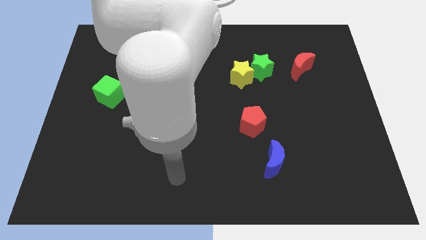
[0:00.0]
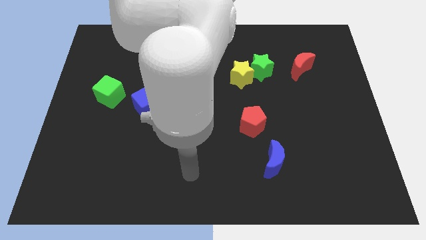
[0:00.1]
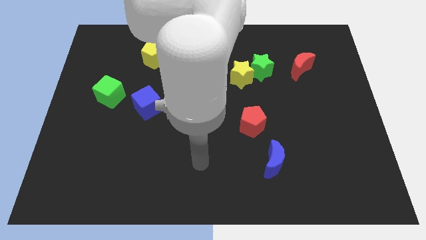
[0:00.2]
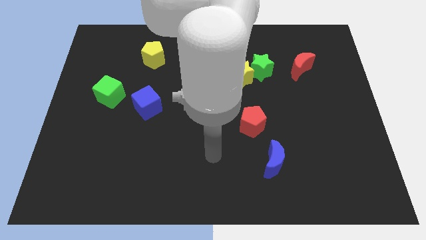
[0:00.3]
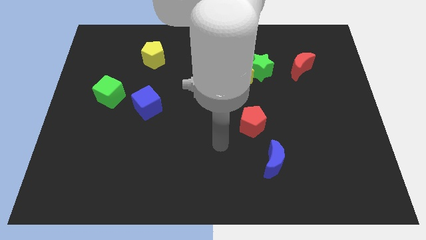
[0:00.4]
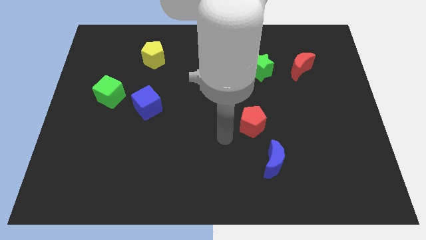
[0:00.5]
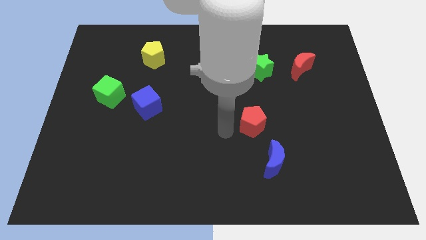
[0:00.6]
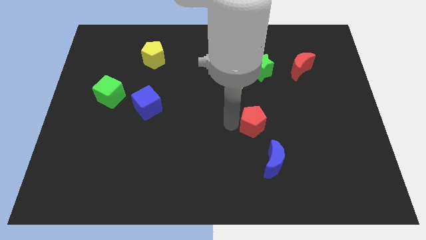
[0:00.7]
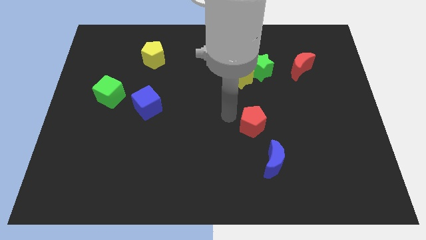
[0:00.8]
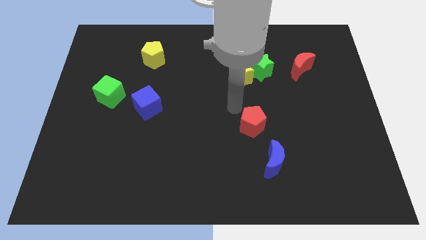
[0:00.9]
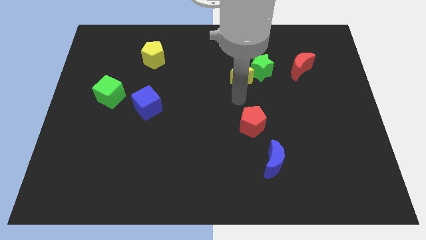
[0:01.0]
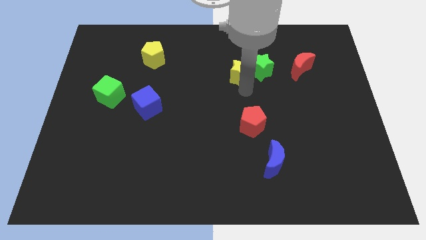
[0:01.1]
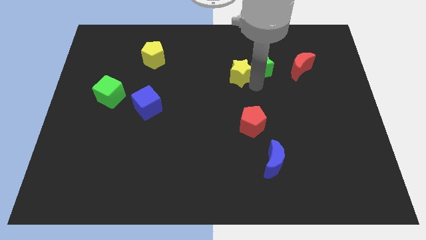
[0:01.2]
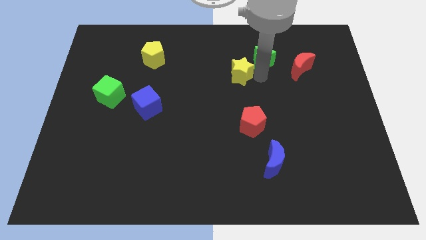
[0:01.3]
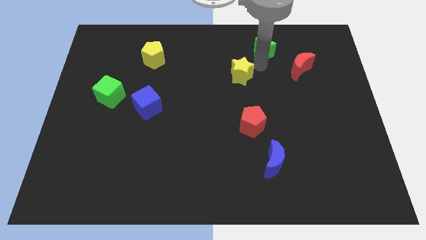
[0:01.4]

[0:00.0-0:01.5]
pull the yellow star apart from the green star

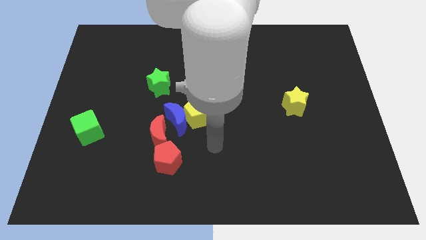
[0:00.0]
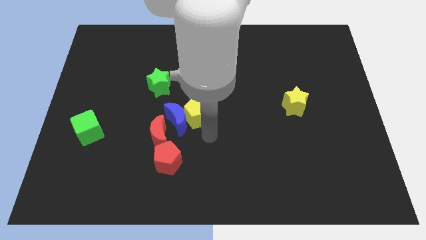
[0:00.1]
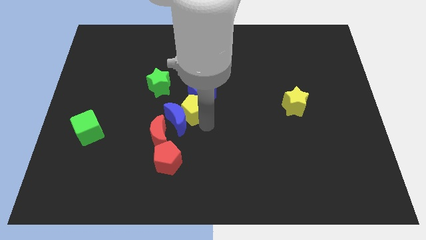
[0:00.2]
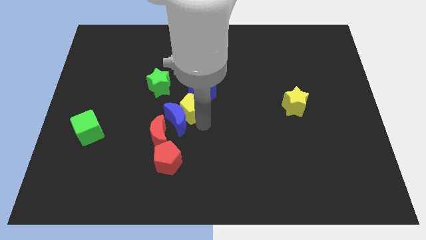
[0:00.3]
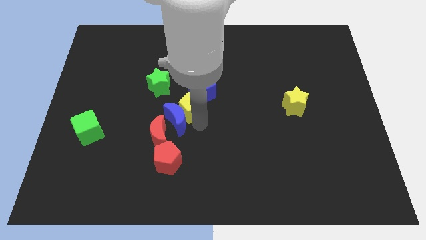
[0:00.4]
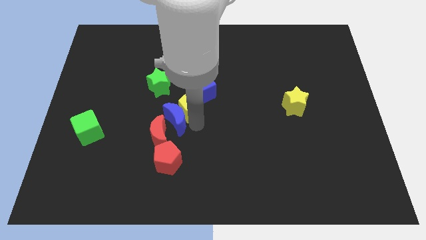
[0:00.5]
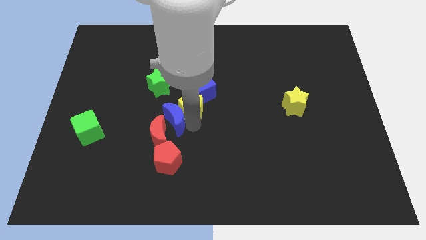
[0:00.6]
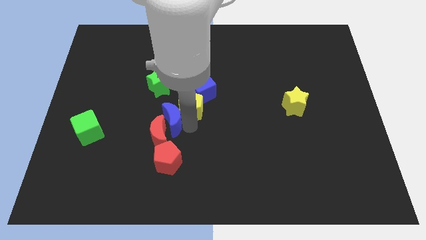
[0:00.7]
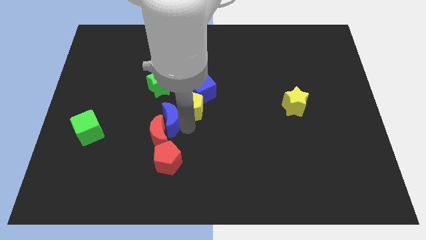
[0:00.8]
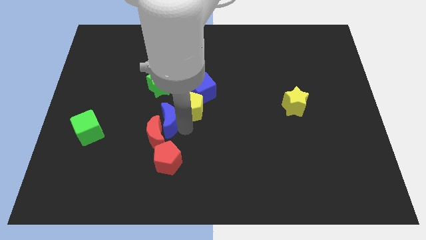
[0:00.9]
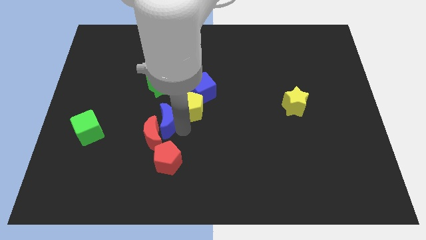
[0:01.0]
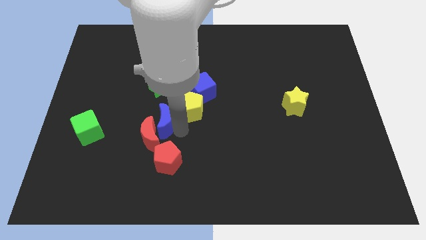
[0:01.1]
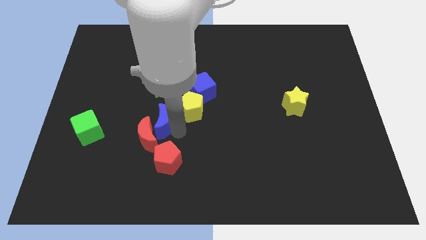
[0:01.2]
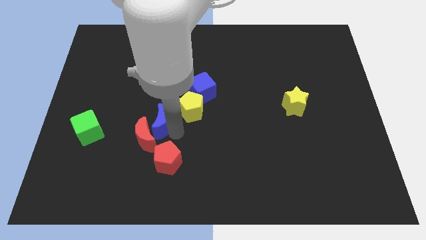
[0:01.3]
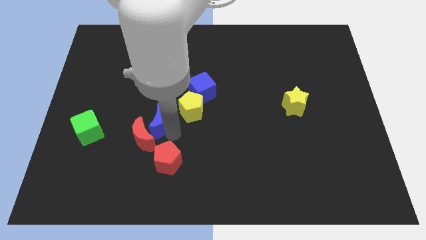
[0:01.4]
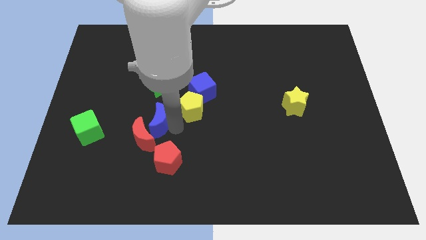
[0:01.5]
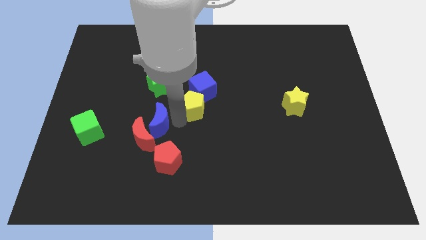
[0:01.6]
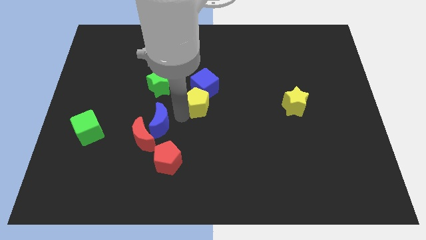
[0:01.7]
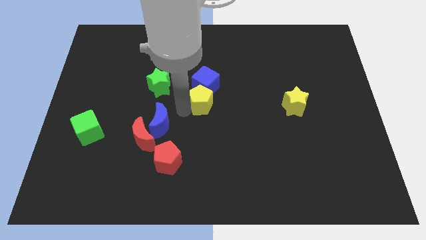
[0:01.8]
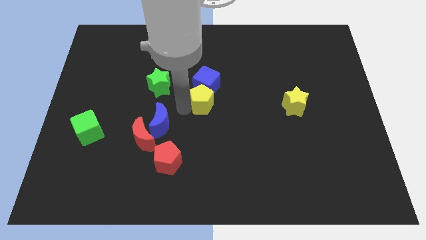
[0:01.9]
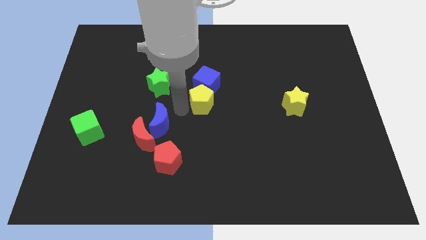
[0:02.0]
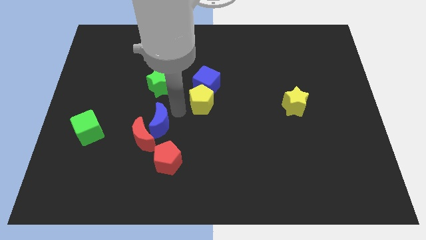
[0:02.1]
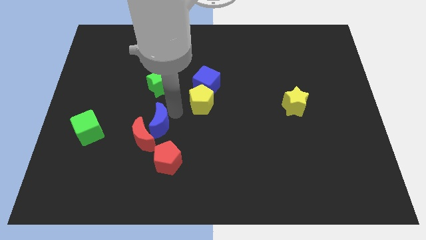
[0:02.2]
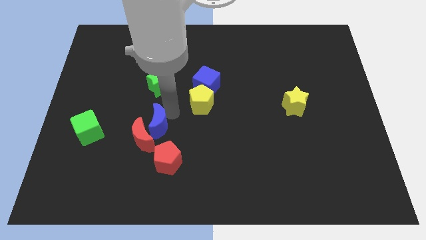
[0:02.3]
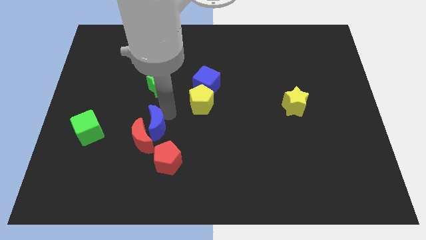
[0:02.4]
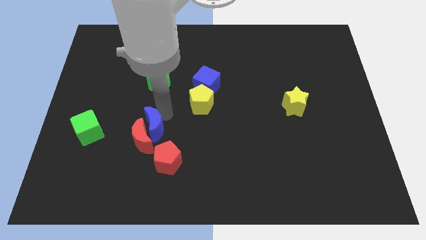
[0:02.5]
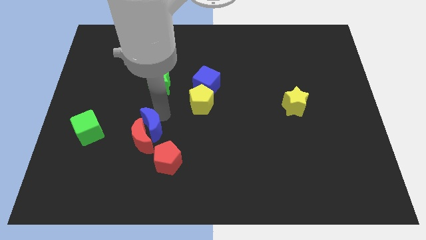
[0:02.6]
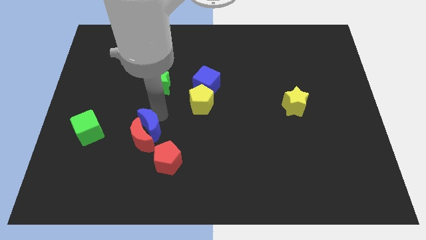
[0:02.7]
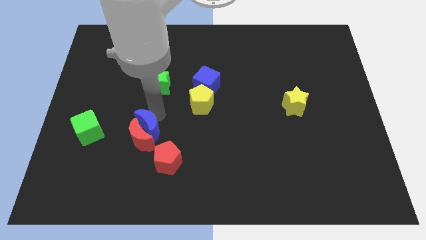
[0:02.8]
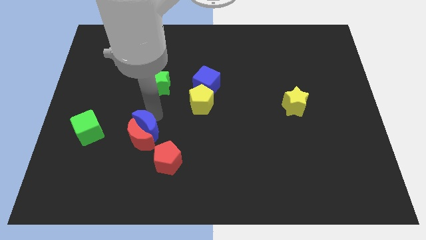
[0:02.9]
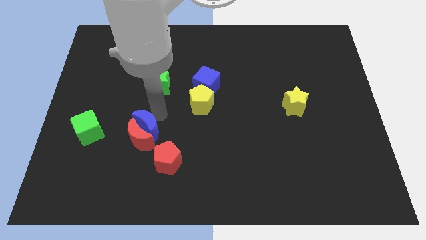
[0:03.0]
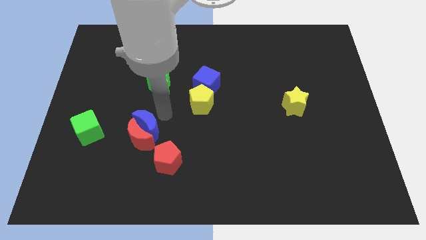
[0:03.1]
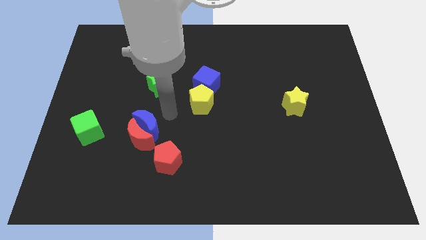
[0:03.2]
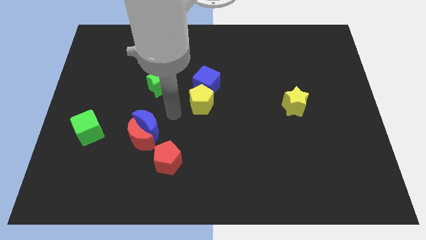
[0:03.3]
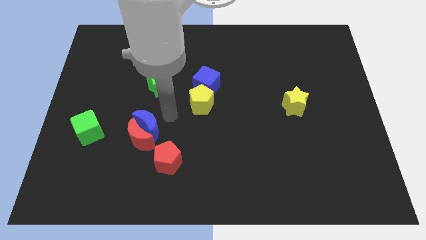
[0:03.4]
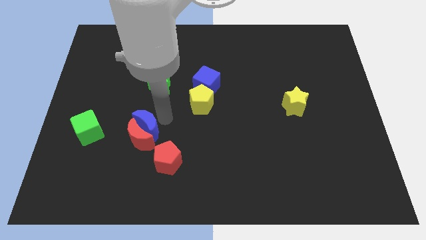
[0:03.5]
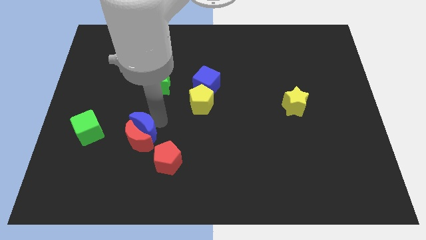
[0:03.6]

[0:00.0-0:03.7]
separate the blue moon from the clump

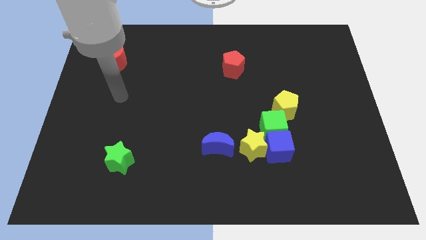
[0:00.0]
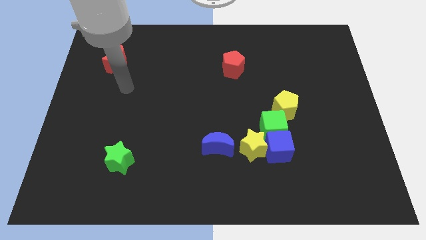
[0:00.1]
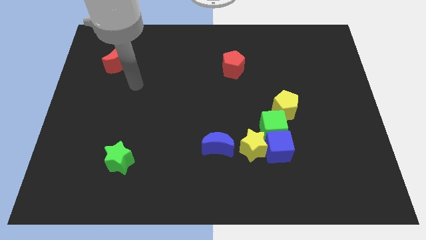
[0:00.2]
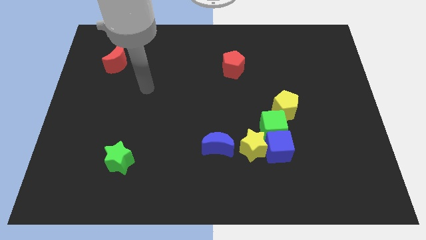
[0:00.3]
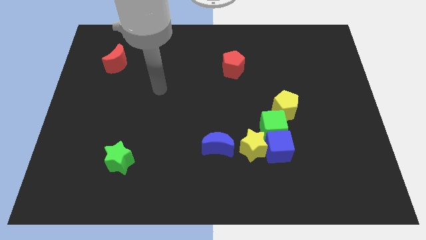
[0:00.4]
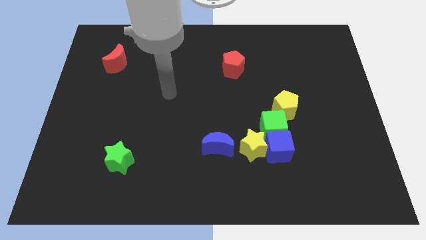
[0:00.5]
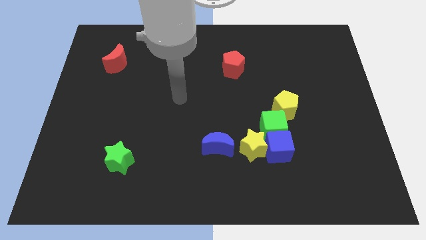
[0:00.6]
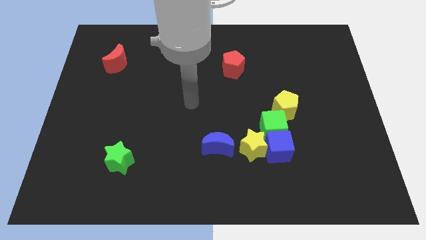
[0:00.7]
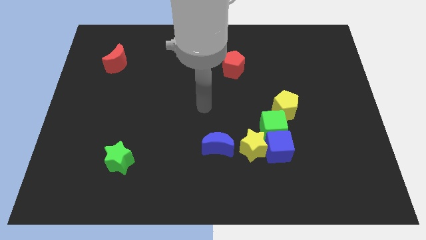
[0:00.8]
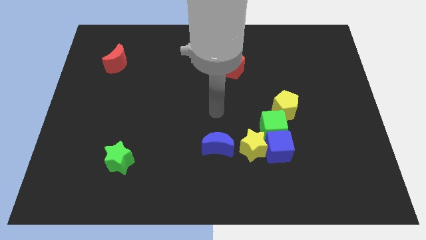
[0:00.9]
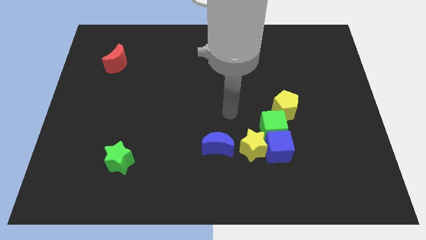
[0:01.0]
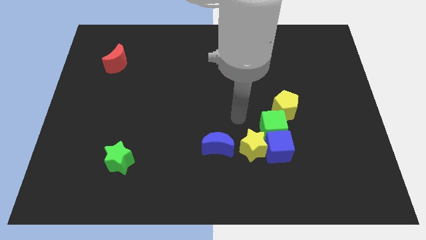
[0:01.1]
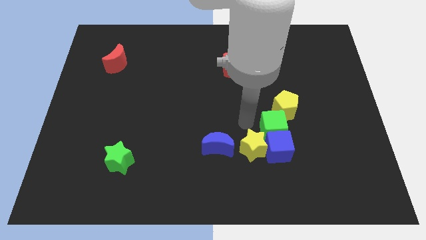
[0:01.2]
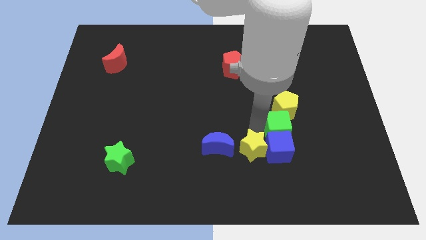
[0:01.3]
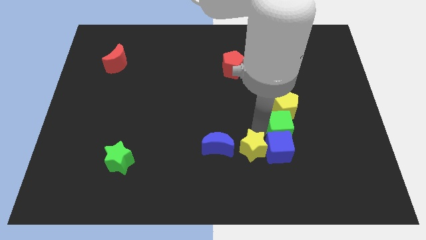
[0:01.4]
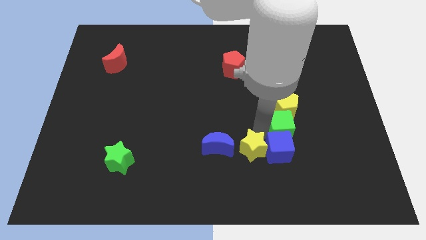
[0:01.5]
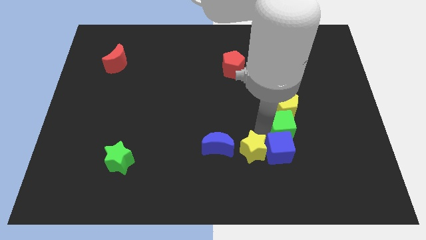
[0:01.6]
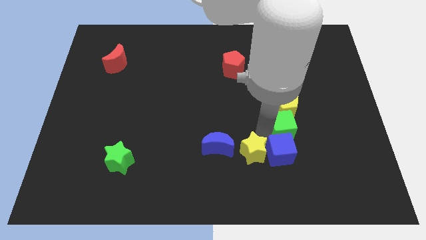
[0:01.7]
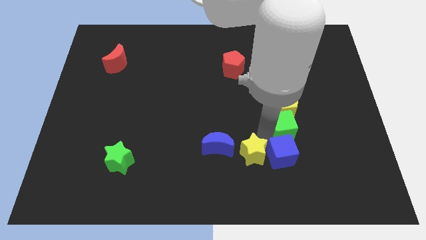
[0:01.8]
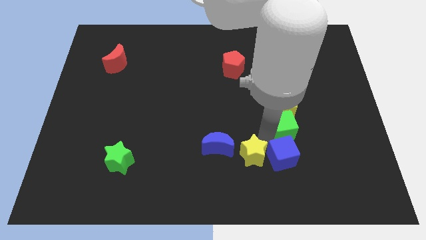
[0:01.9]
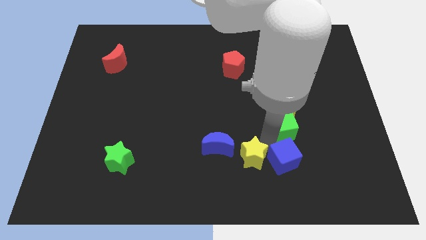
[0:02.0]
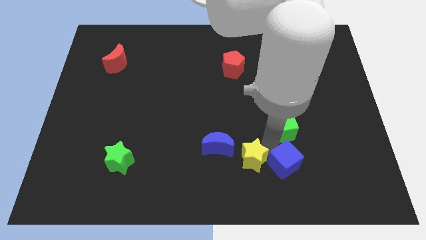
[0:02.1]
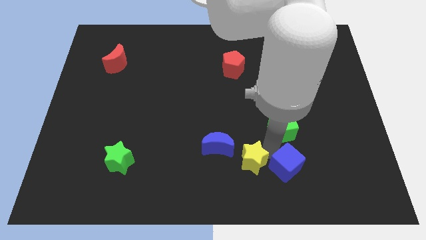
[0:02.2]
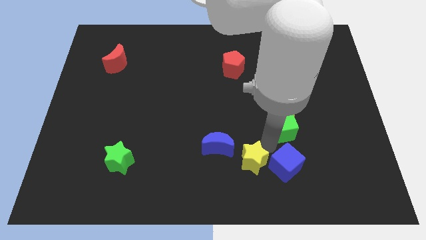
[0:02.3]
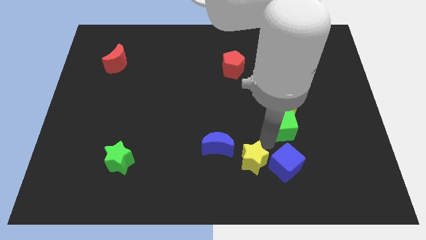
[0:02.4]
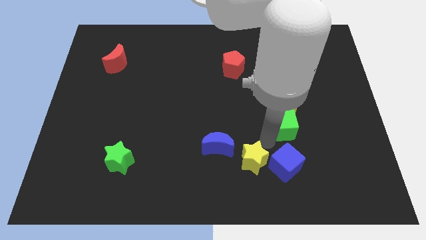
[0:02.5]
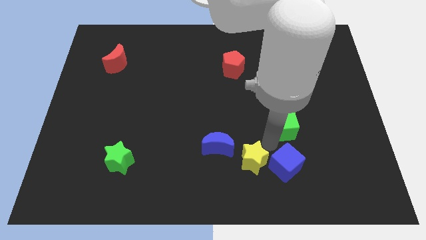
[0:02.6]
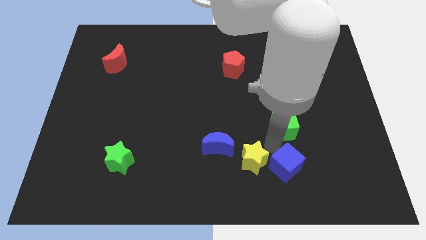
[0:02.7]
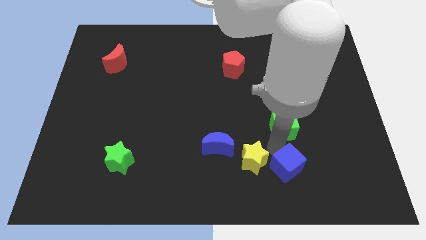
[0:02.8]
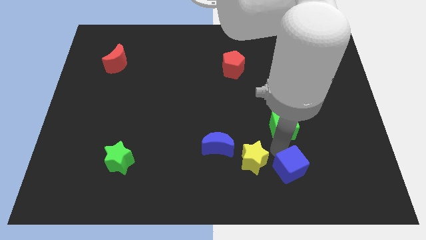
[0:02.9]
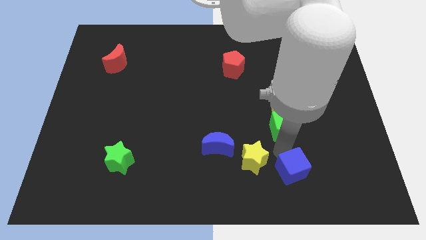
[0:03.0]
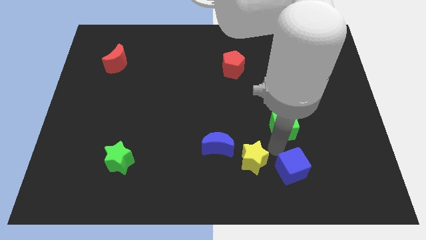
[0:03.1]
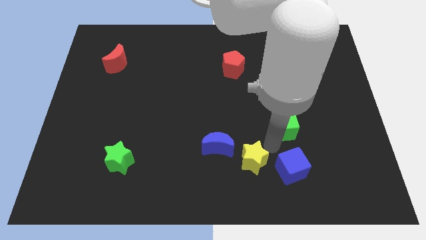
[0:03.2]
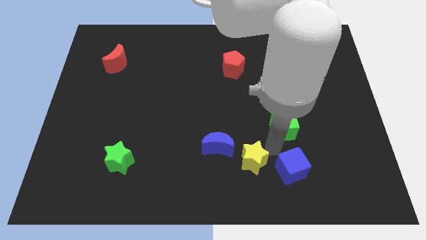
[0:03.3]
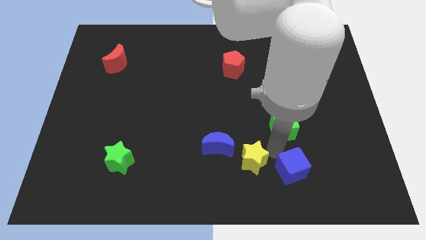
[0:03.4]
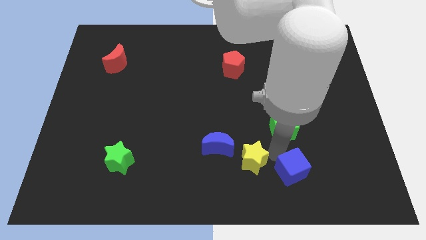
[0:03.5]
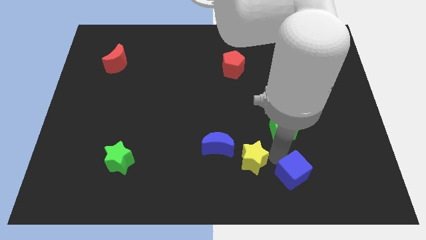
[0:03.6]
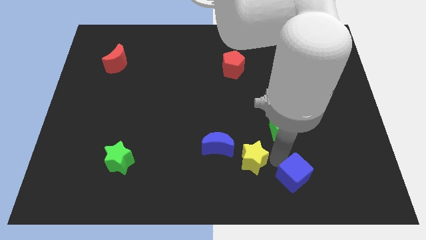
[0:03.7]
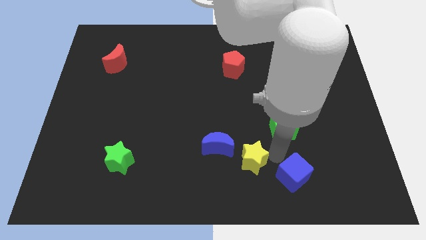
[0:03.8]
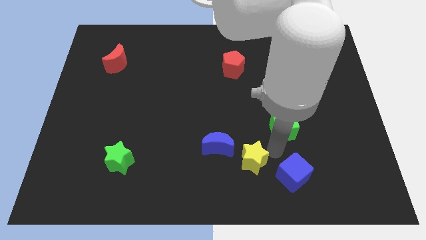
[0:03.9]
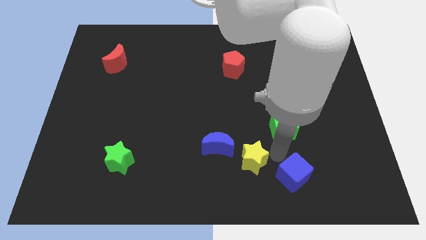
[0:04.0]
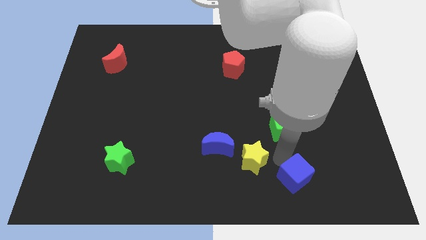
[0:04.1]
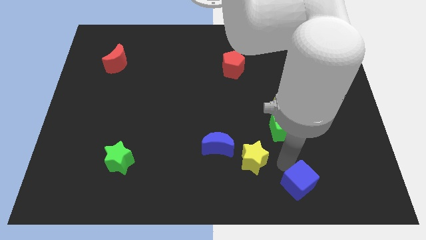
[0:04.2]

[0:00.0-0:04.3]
pull the blue cube apart from the yellow star and green cube
